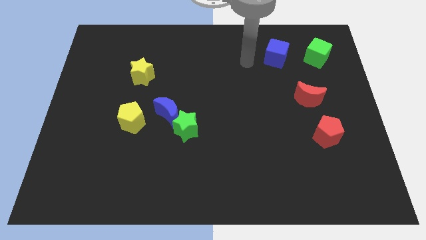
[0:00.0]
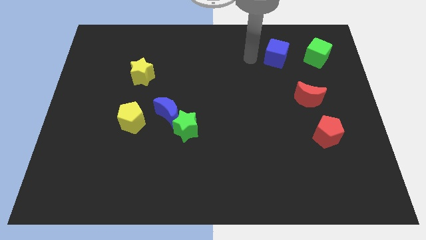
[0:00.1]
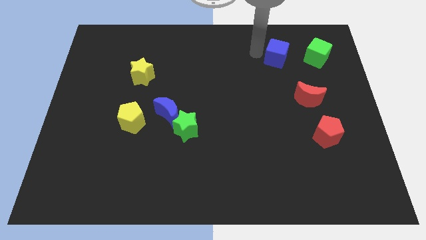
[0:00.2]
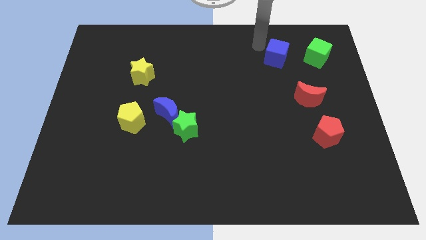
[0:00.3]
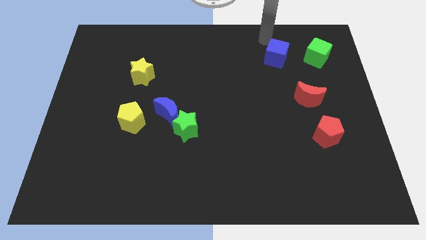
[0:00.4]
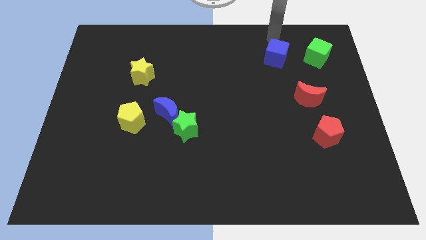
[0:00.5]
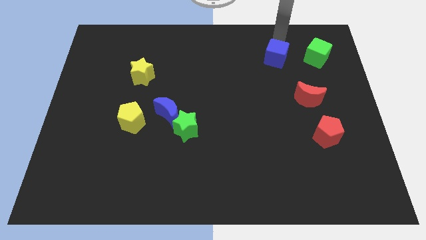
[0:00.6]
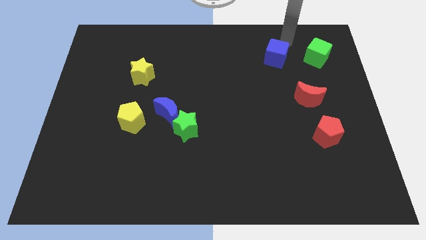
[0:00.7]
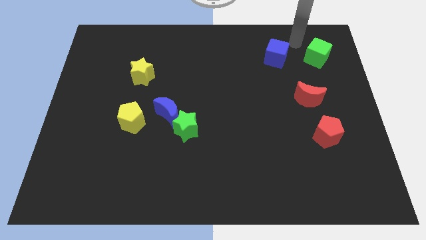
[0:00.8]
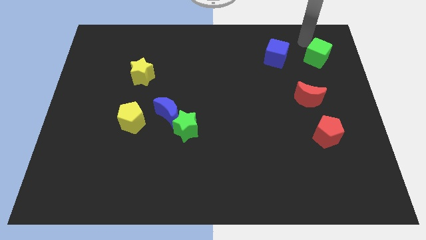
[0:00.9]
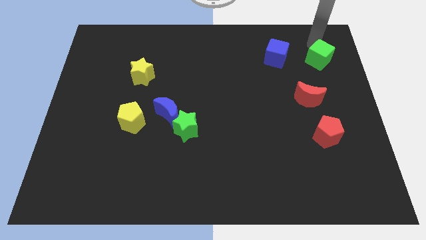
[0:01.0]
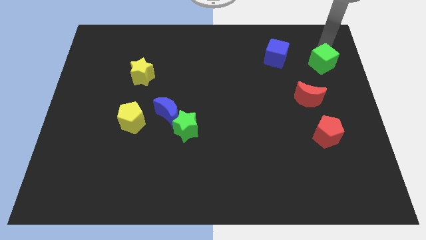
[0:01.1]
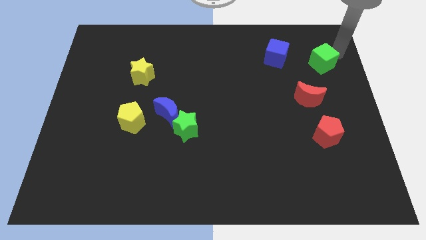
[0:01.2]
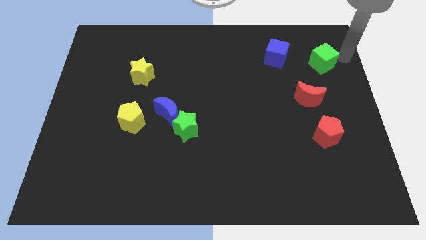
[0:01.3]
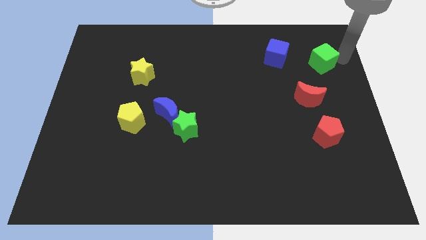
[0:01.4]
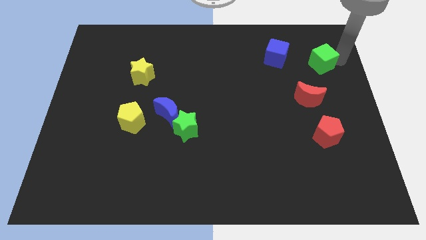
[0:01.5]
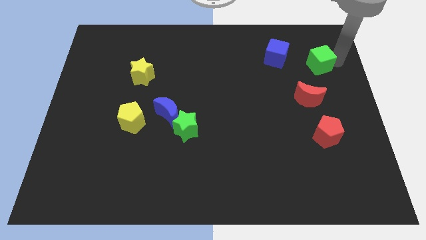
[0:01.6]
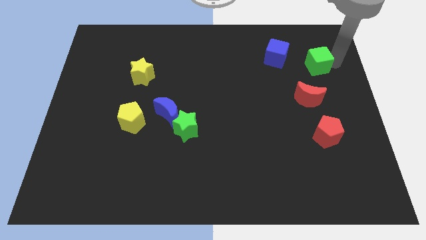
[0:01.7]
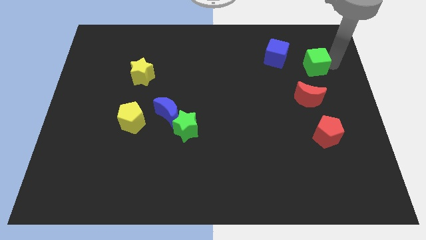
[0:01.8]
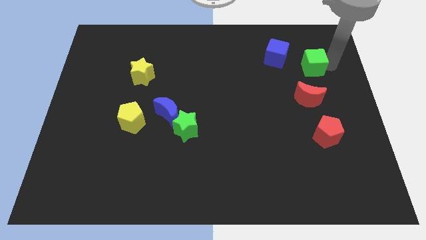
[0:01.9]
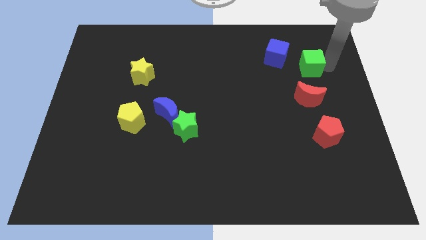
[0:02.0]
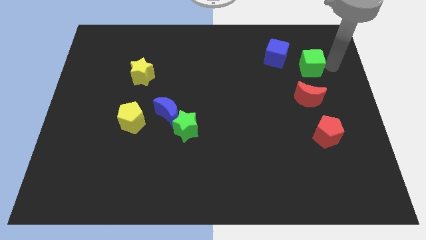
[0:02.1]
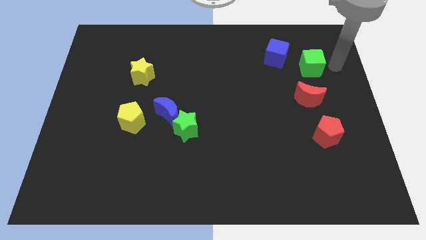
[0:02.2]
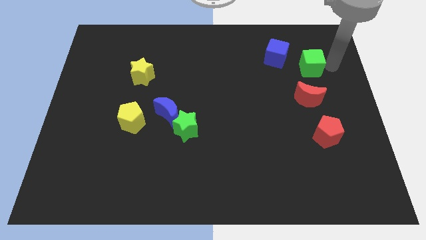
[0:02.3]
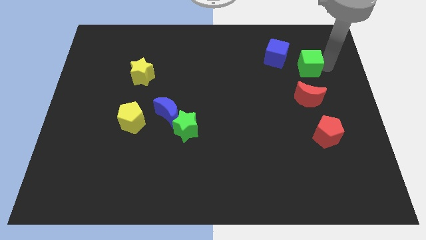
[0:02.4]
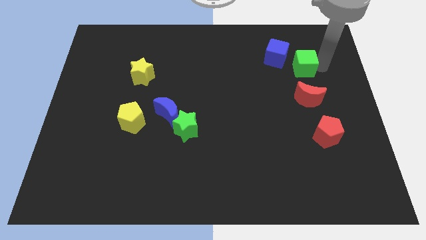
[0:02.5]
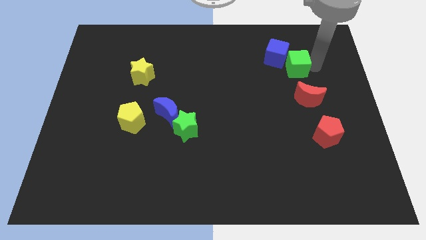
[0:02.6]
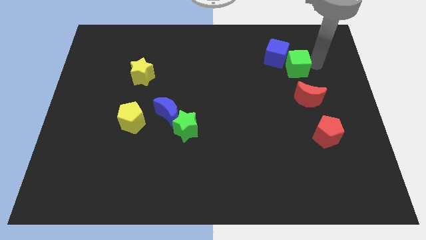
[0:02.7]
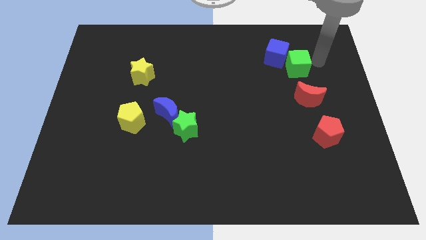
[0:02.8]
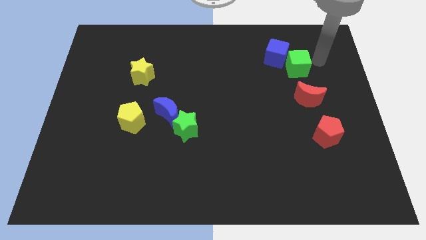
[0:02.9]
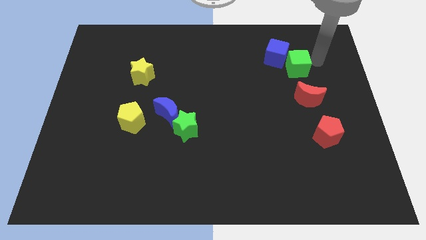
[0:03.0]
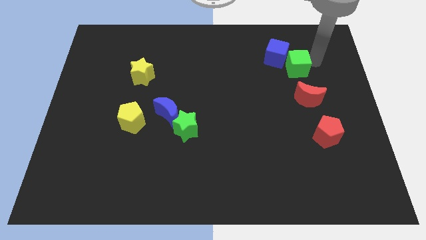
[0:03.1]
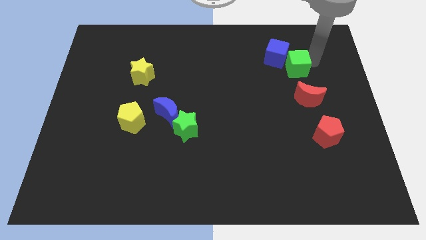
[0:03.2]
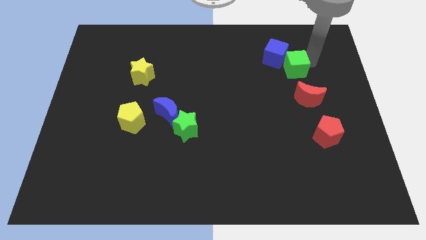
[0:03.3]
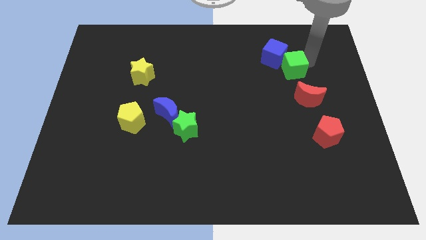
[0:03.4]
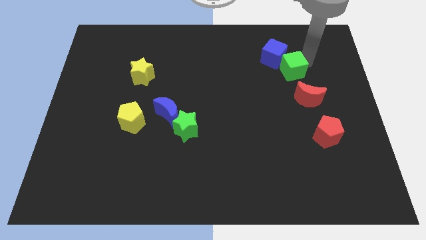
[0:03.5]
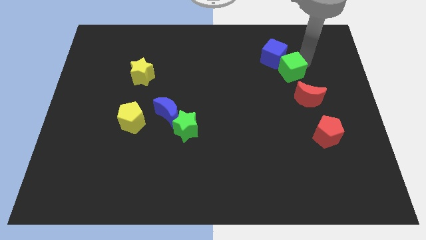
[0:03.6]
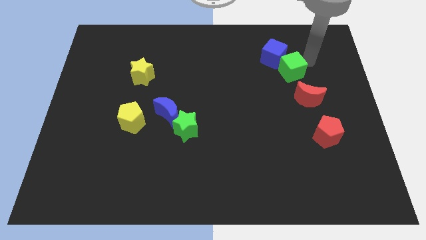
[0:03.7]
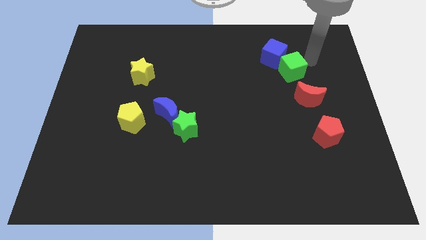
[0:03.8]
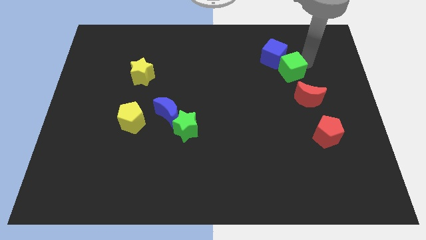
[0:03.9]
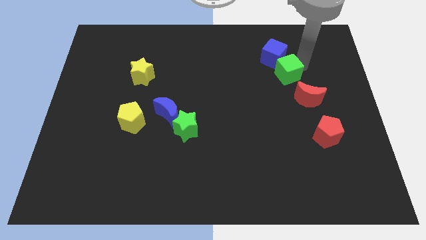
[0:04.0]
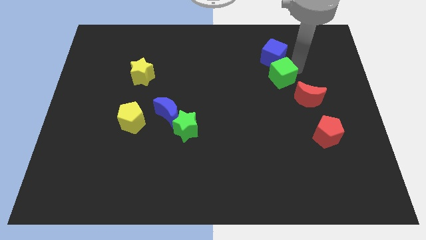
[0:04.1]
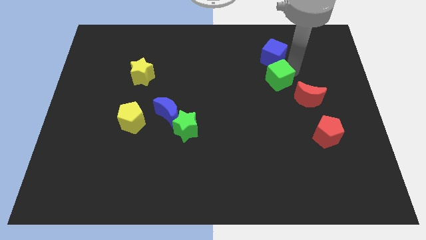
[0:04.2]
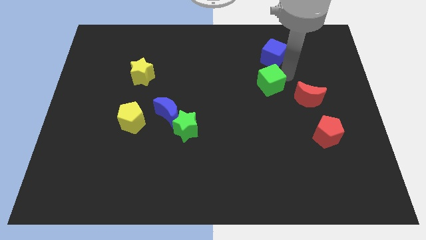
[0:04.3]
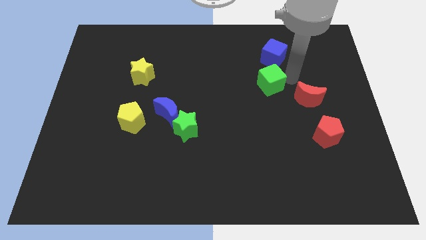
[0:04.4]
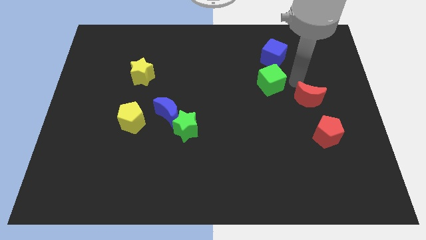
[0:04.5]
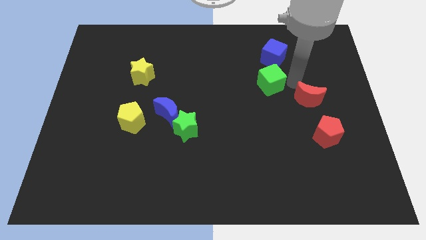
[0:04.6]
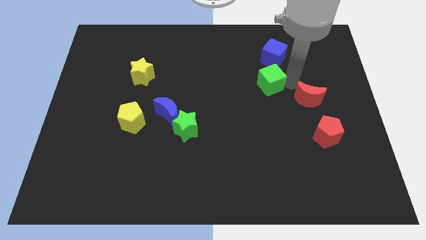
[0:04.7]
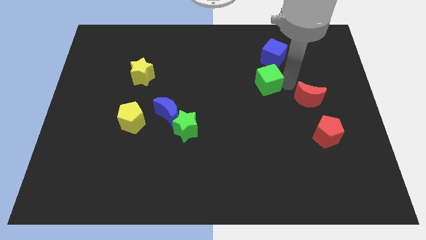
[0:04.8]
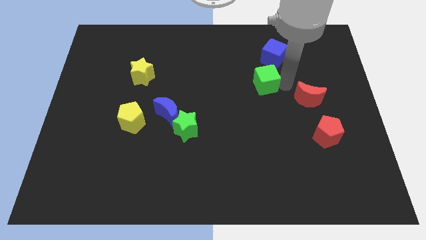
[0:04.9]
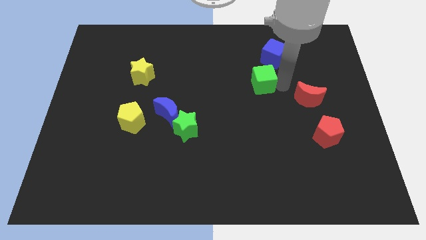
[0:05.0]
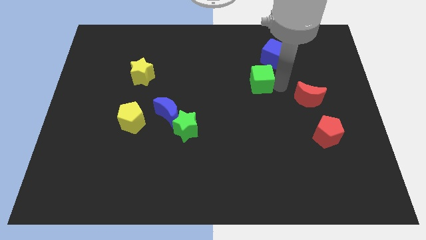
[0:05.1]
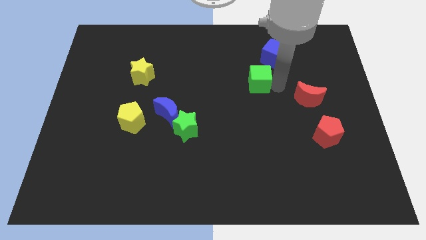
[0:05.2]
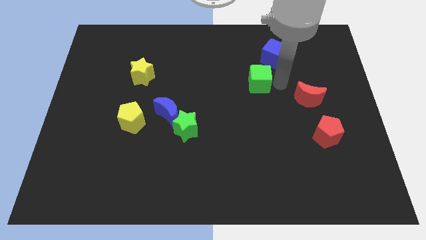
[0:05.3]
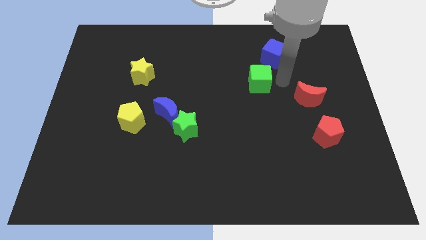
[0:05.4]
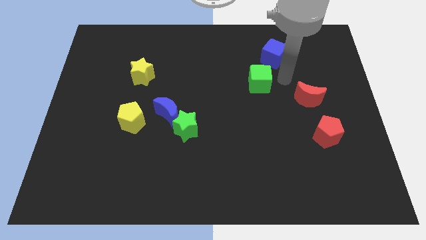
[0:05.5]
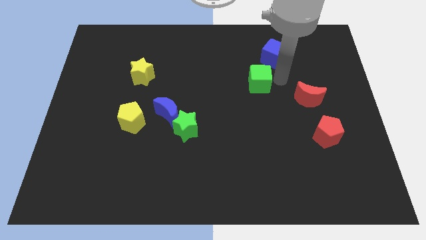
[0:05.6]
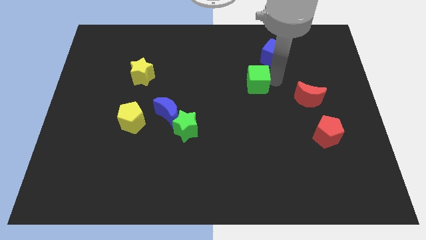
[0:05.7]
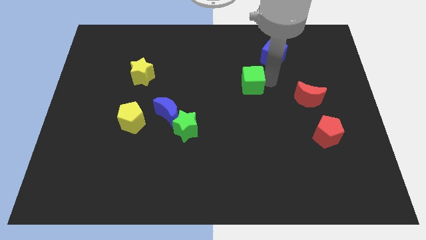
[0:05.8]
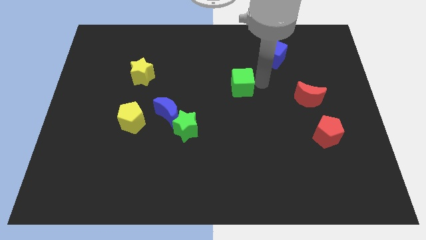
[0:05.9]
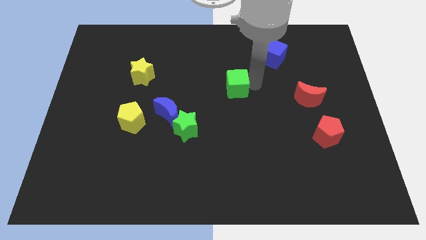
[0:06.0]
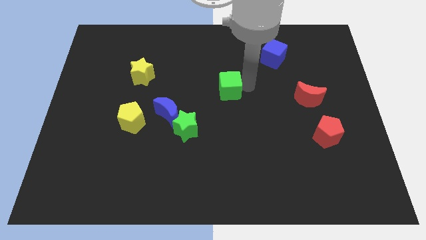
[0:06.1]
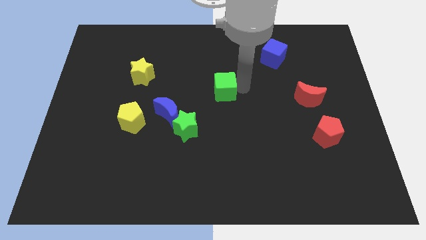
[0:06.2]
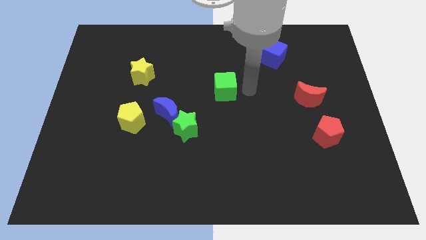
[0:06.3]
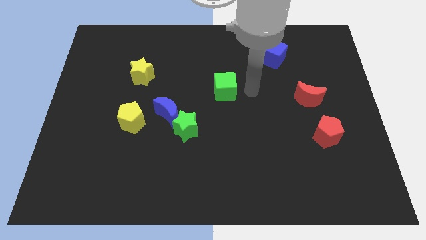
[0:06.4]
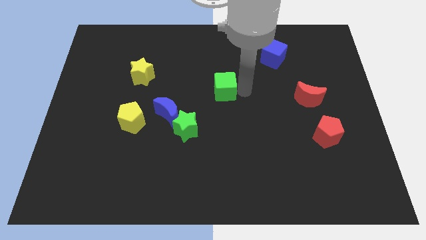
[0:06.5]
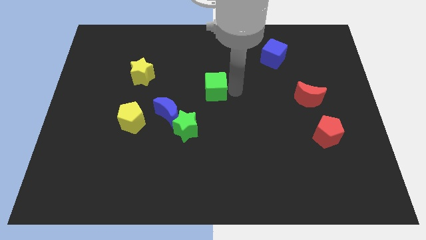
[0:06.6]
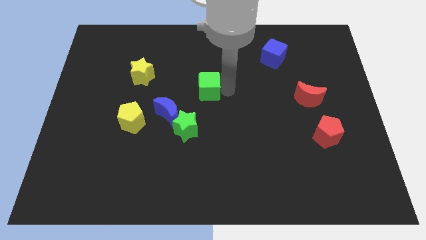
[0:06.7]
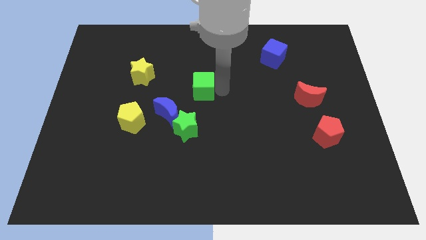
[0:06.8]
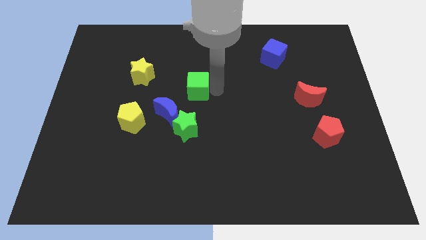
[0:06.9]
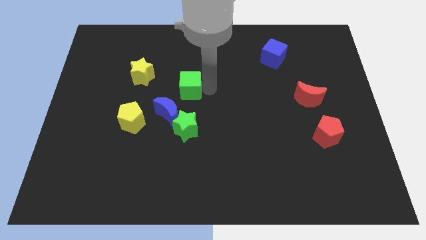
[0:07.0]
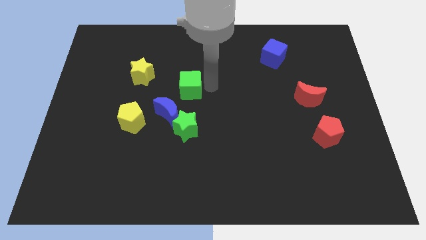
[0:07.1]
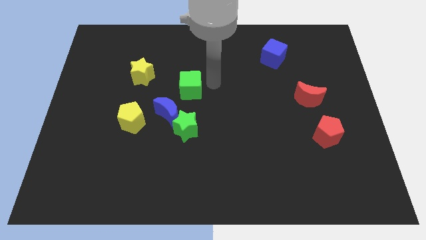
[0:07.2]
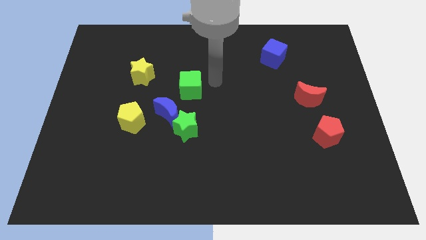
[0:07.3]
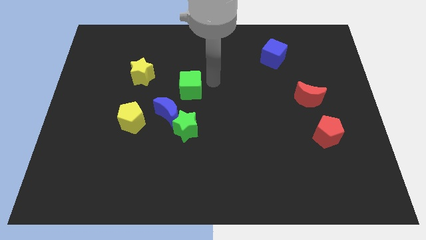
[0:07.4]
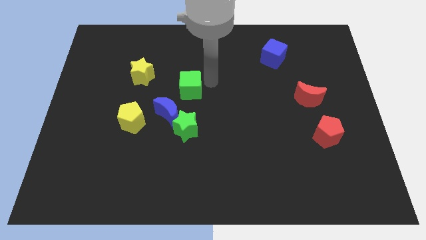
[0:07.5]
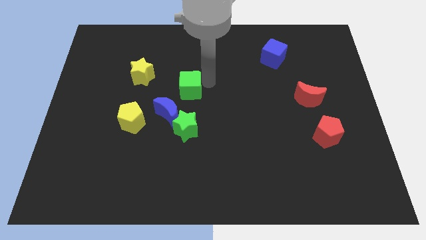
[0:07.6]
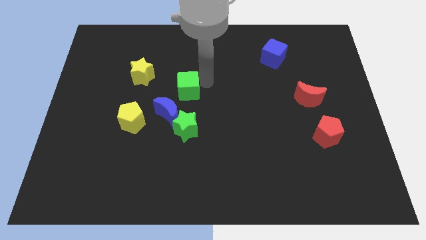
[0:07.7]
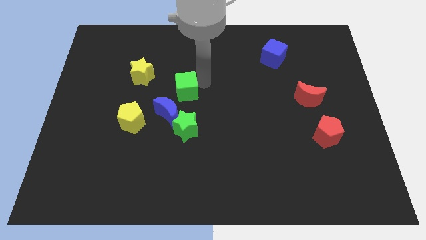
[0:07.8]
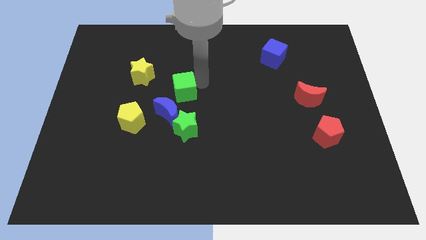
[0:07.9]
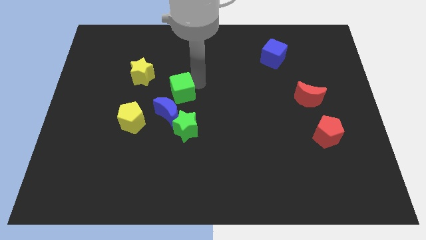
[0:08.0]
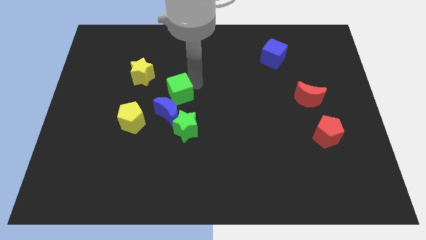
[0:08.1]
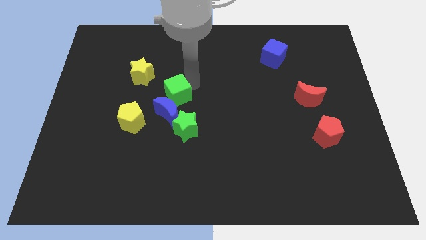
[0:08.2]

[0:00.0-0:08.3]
put the green cube to the top right side of the yellow pentagon
